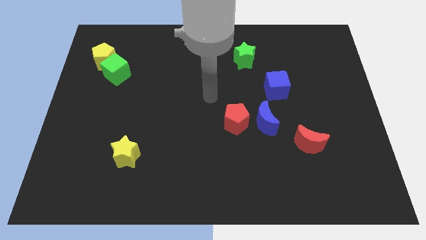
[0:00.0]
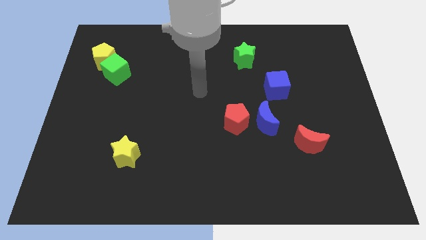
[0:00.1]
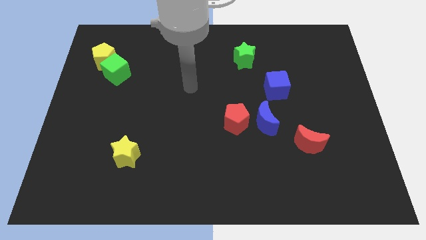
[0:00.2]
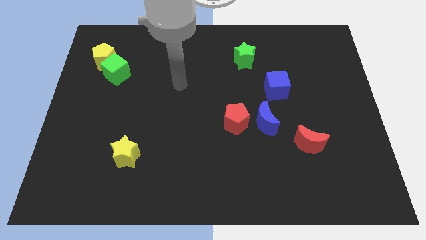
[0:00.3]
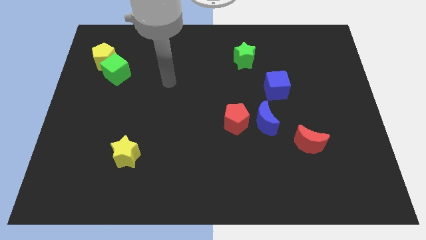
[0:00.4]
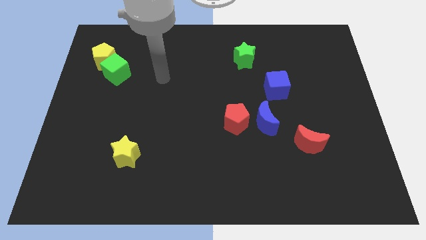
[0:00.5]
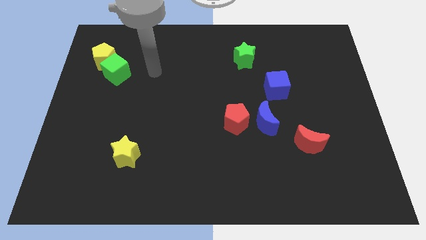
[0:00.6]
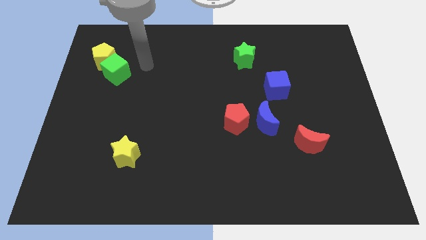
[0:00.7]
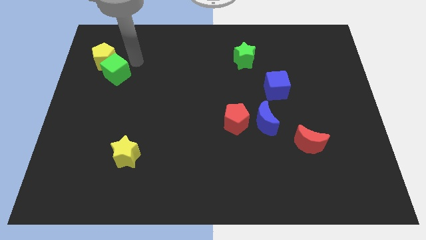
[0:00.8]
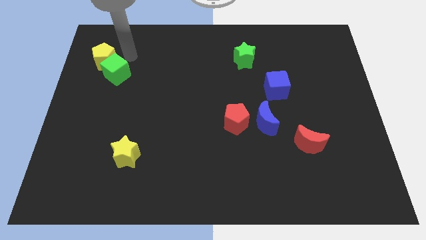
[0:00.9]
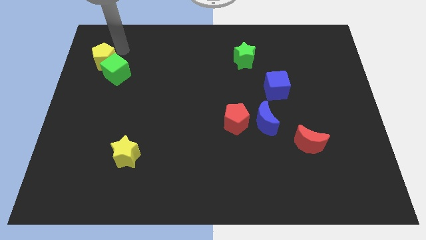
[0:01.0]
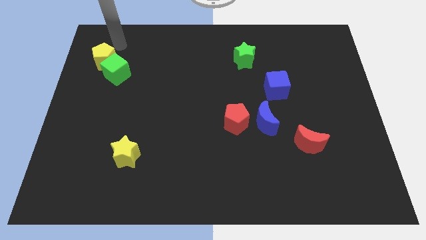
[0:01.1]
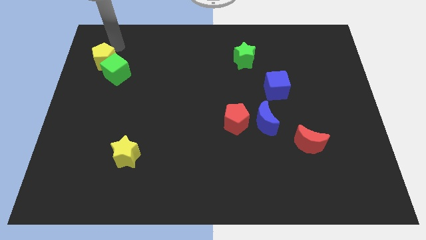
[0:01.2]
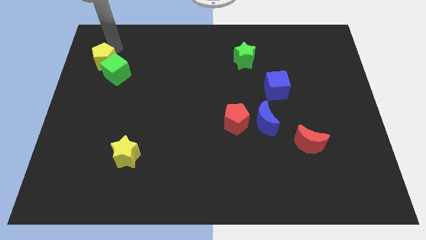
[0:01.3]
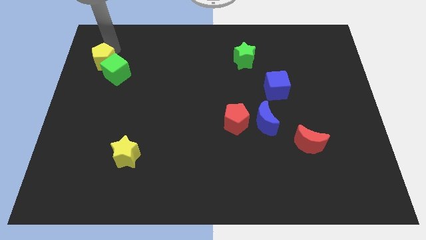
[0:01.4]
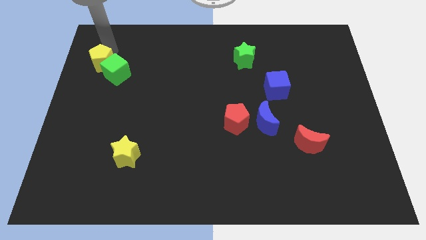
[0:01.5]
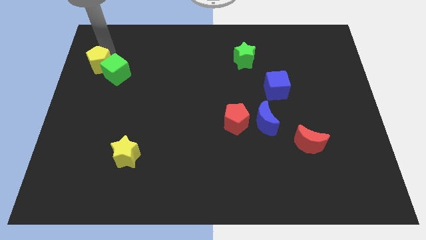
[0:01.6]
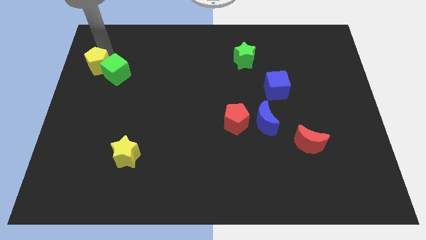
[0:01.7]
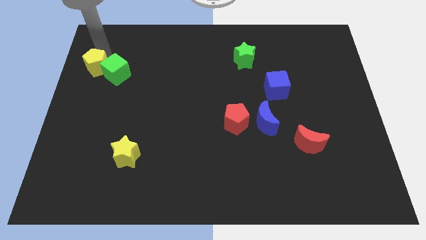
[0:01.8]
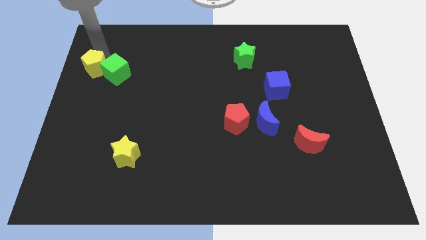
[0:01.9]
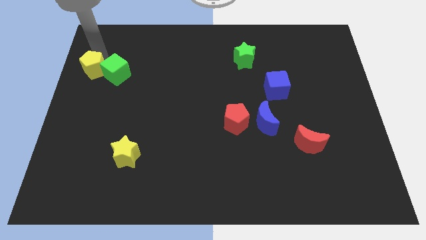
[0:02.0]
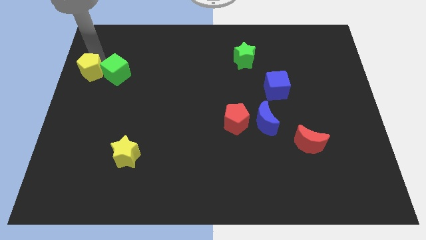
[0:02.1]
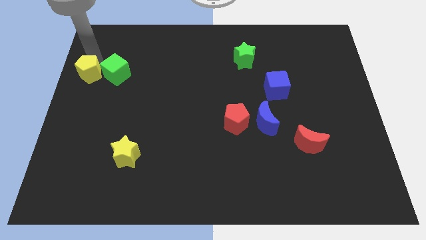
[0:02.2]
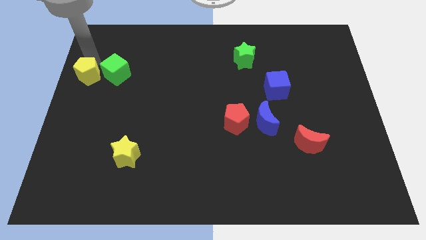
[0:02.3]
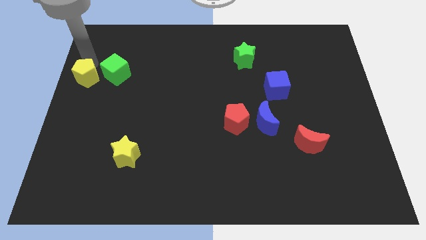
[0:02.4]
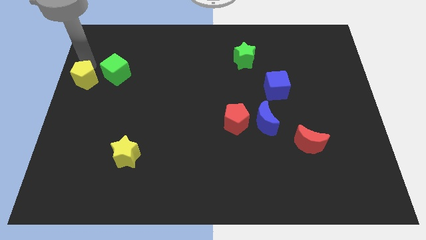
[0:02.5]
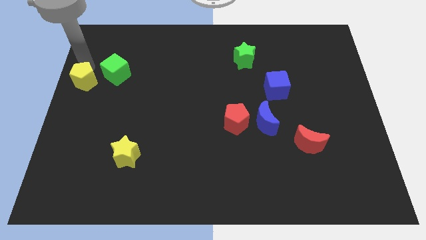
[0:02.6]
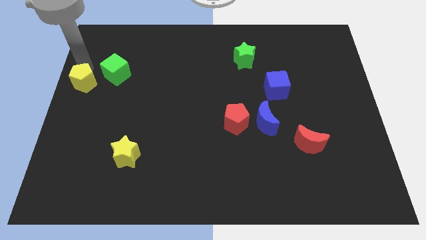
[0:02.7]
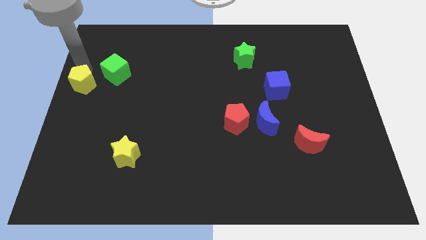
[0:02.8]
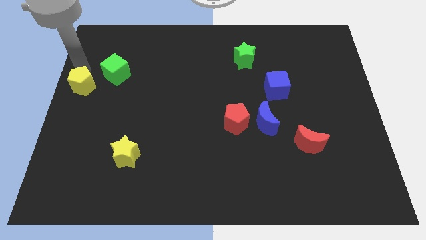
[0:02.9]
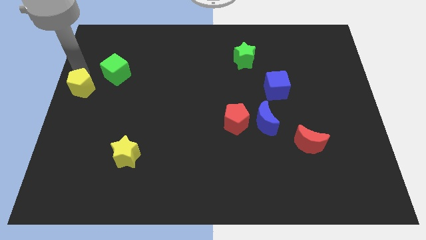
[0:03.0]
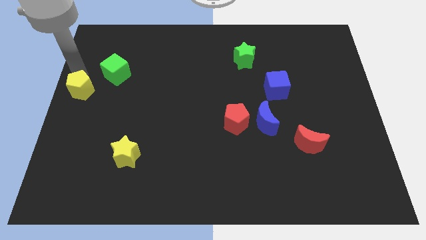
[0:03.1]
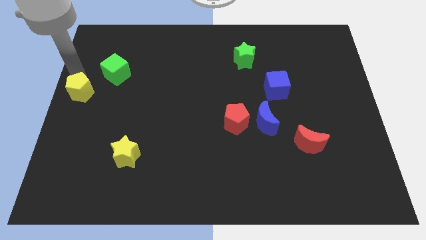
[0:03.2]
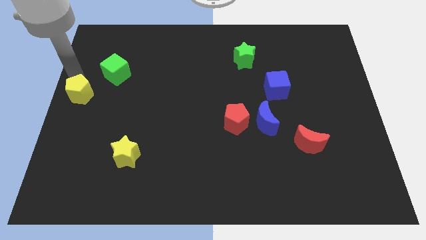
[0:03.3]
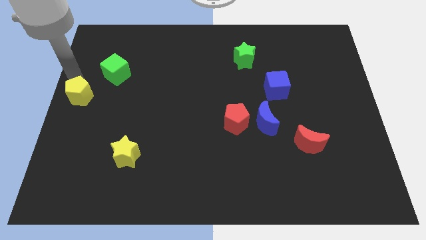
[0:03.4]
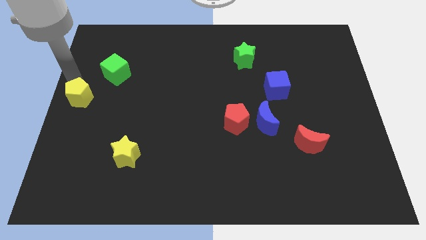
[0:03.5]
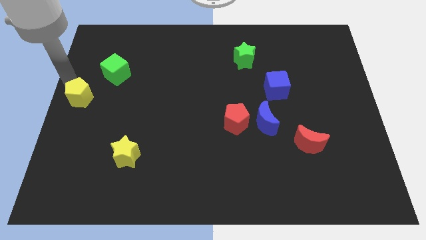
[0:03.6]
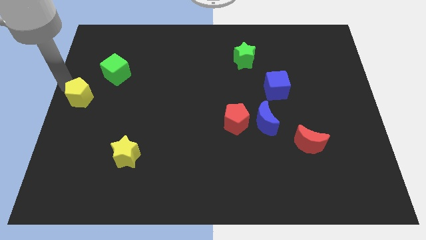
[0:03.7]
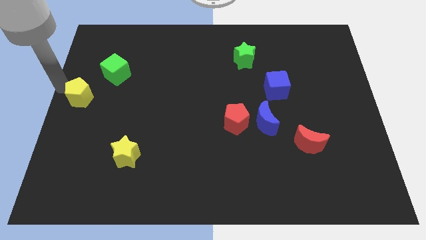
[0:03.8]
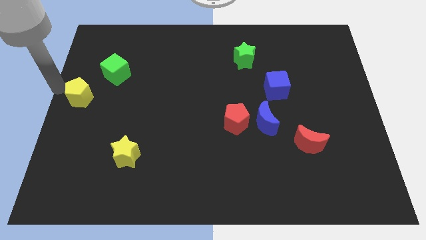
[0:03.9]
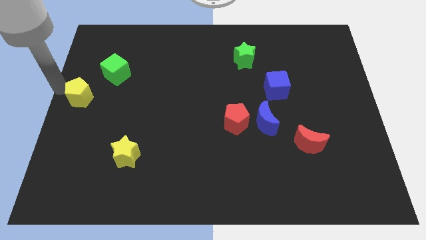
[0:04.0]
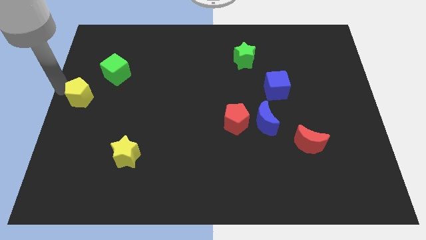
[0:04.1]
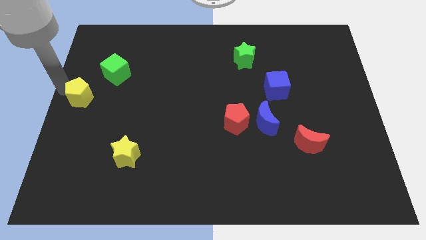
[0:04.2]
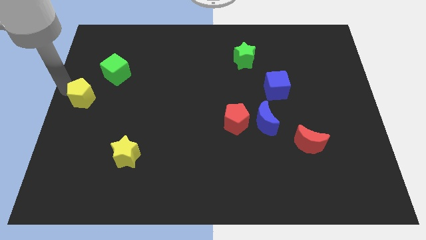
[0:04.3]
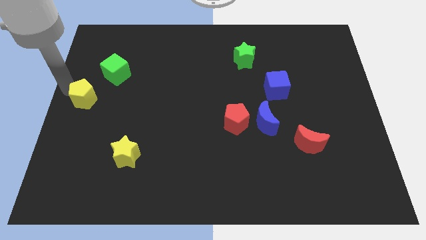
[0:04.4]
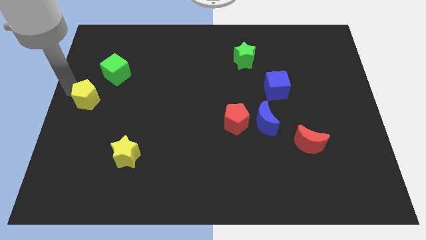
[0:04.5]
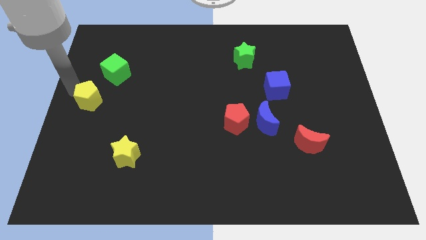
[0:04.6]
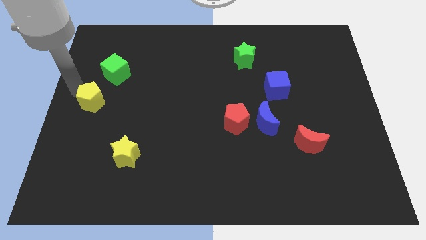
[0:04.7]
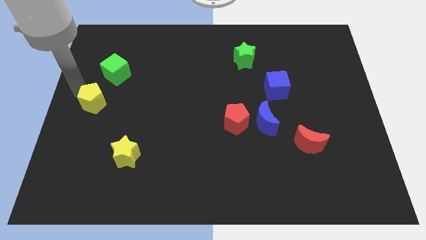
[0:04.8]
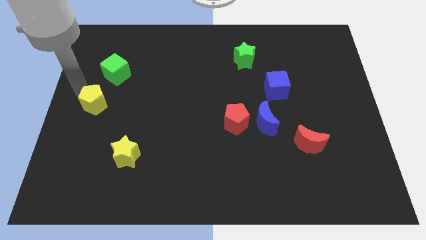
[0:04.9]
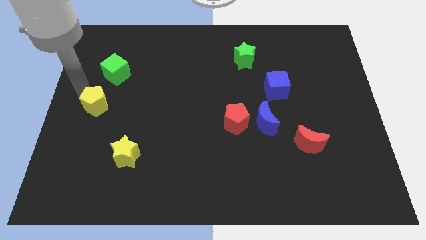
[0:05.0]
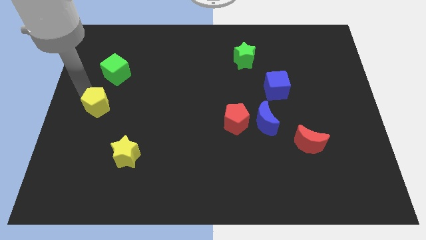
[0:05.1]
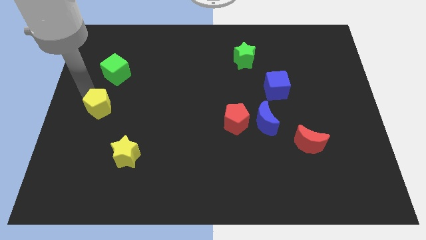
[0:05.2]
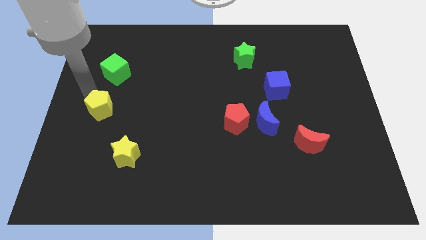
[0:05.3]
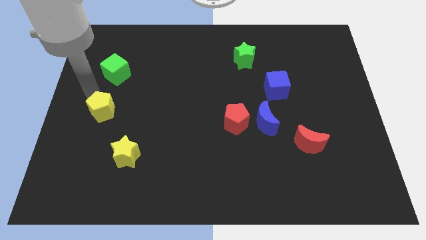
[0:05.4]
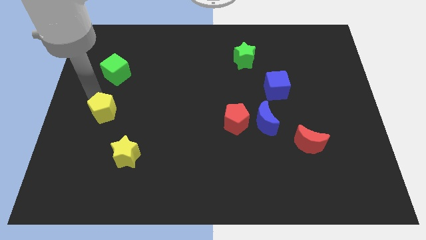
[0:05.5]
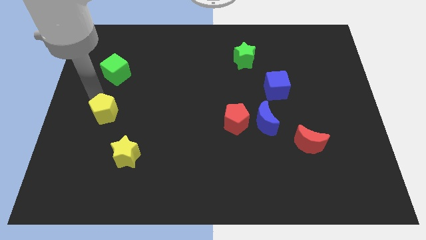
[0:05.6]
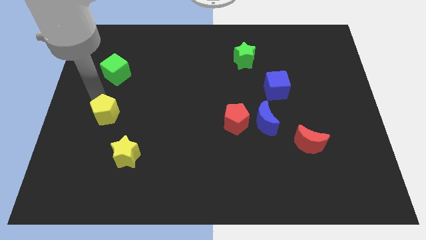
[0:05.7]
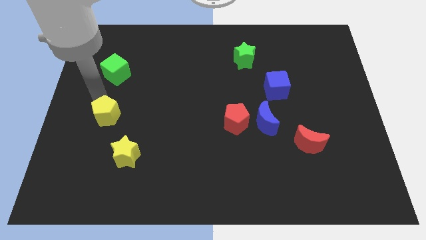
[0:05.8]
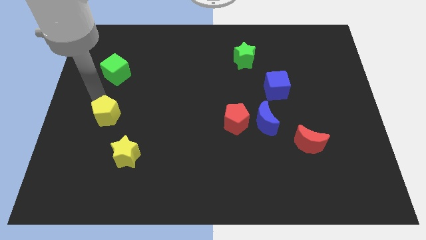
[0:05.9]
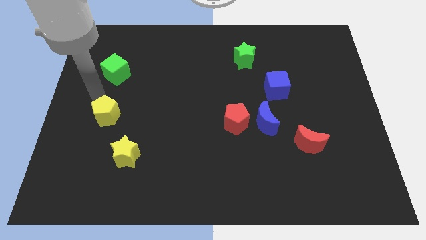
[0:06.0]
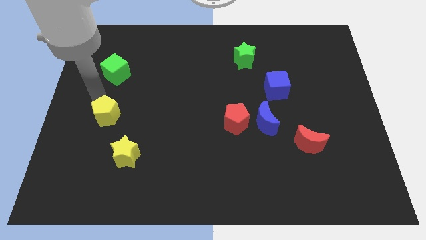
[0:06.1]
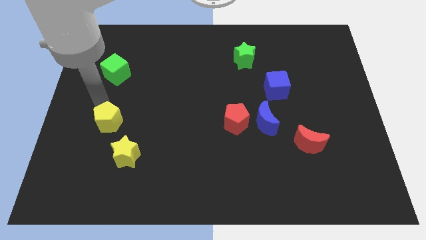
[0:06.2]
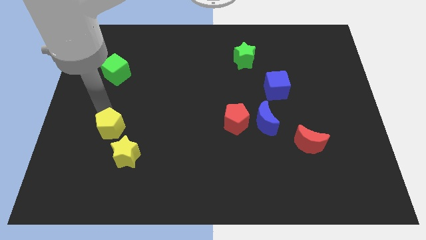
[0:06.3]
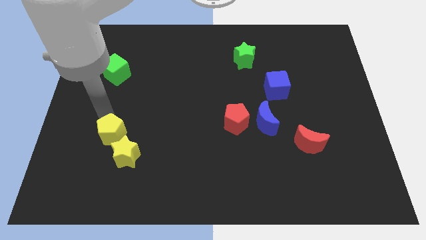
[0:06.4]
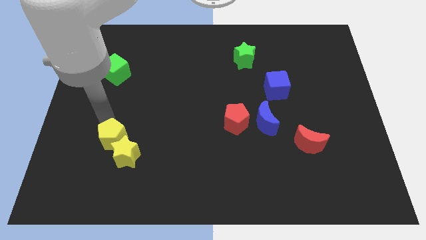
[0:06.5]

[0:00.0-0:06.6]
slide the yellow pentagon to the yellow star

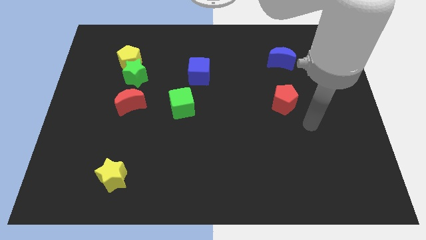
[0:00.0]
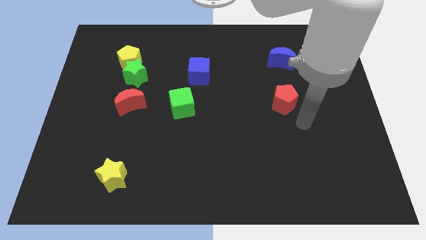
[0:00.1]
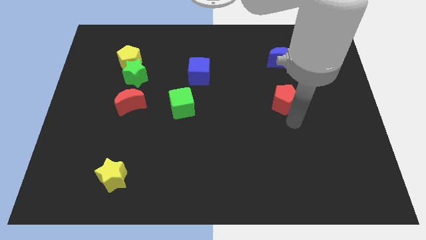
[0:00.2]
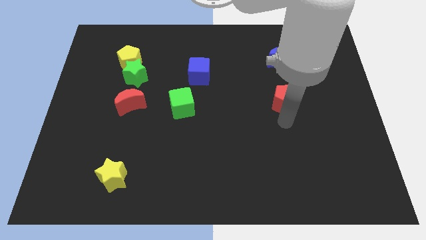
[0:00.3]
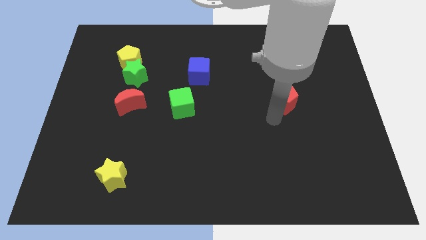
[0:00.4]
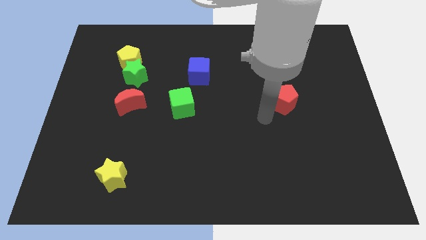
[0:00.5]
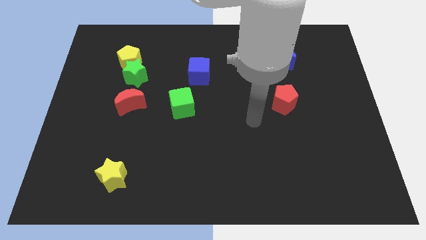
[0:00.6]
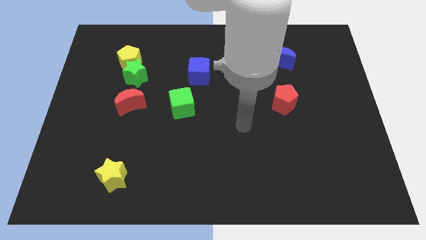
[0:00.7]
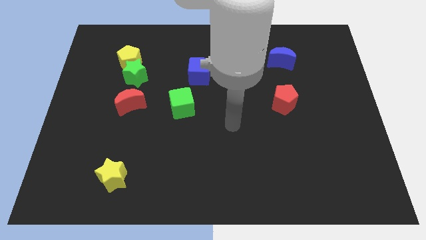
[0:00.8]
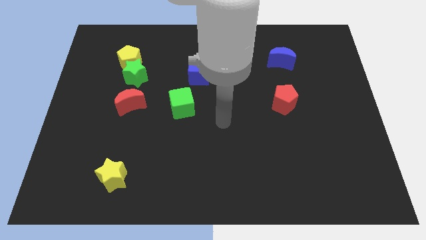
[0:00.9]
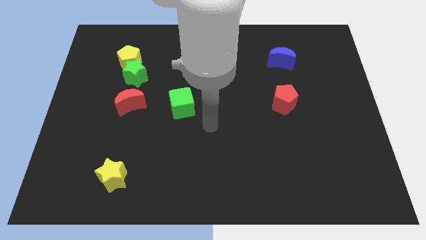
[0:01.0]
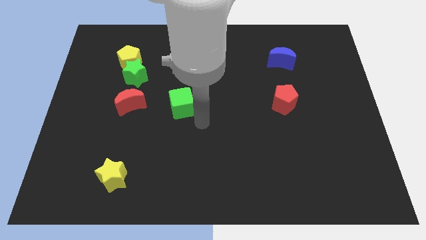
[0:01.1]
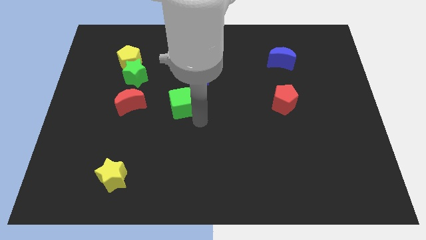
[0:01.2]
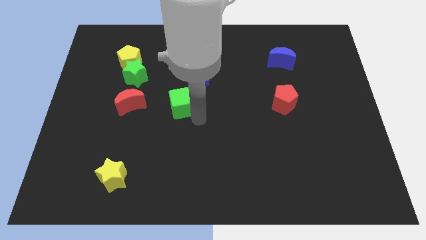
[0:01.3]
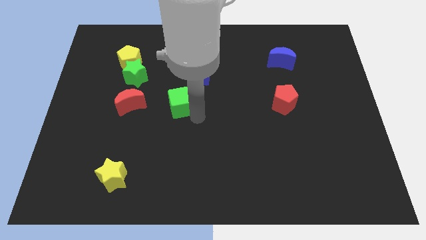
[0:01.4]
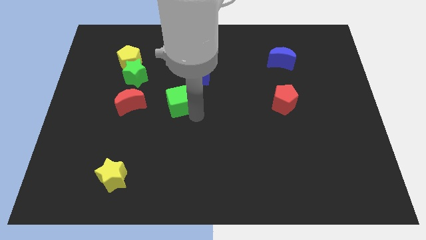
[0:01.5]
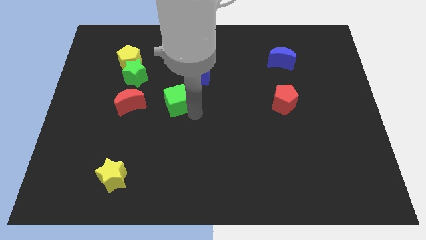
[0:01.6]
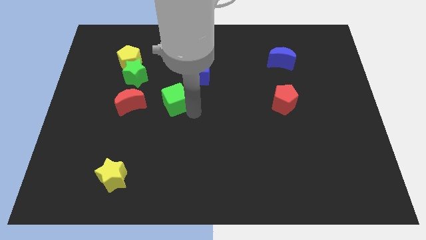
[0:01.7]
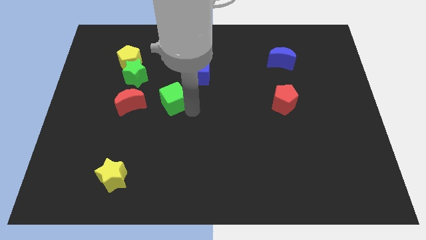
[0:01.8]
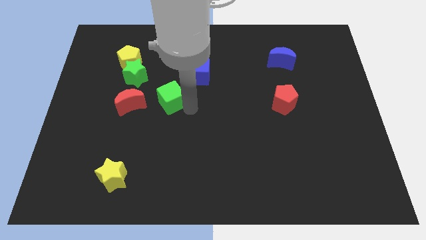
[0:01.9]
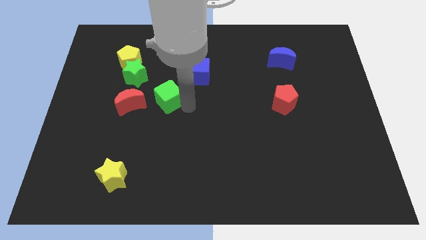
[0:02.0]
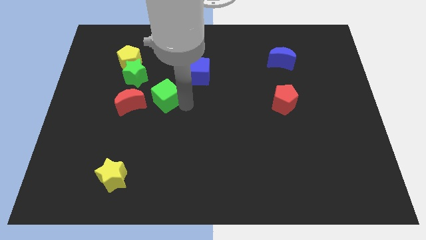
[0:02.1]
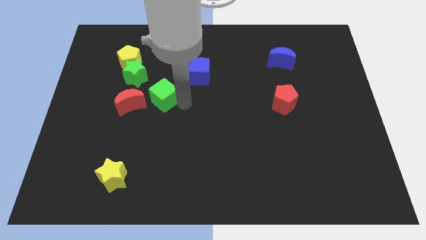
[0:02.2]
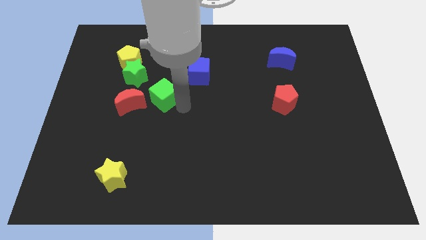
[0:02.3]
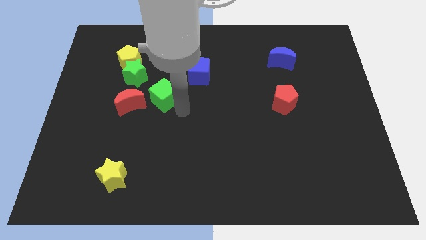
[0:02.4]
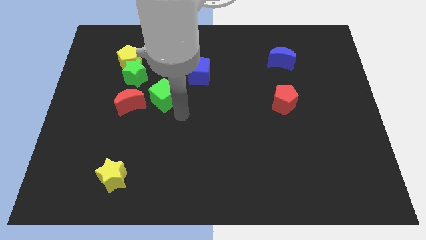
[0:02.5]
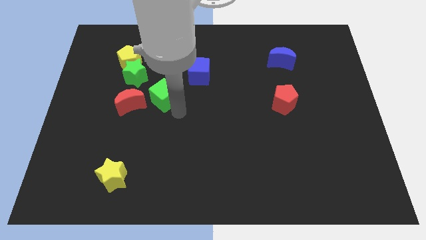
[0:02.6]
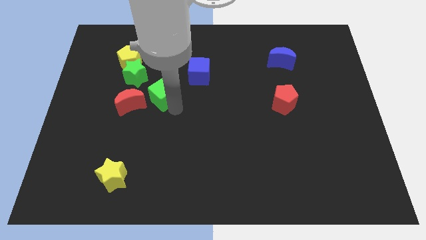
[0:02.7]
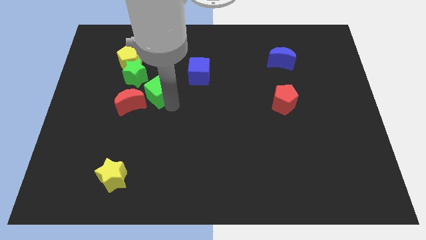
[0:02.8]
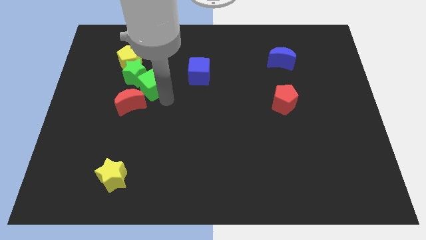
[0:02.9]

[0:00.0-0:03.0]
move the green cube next to the green star
